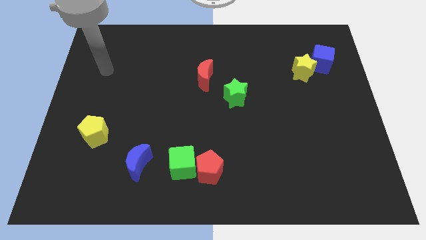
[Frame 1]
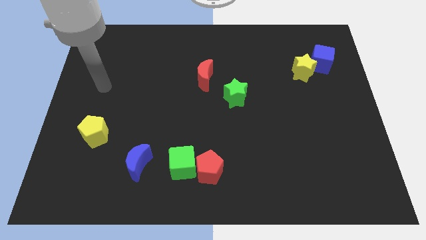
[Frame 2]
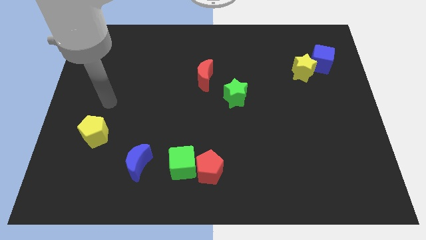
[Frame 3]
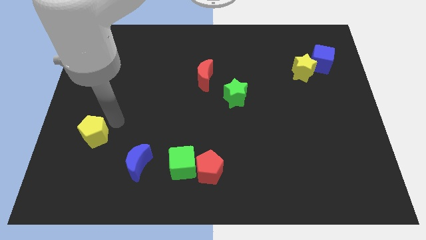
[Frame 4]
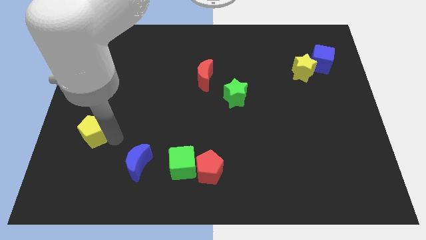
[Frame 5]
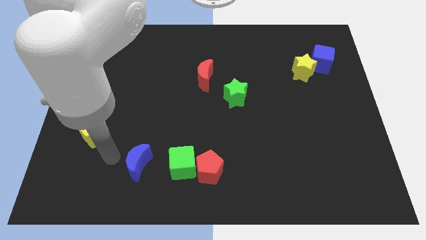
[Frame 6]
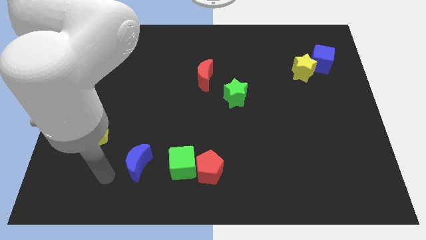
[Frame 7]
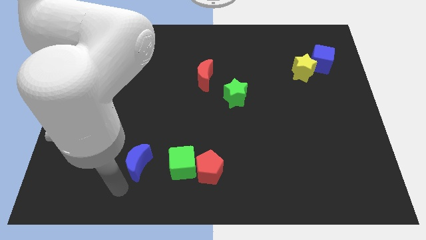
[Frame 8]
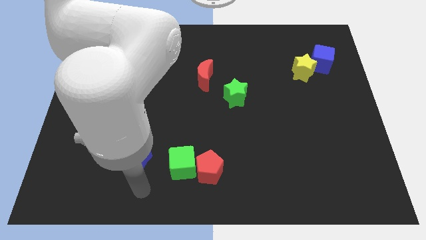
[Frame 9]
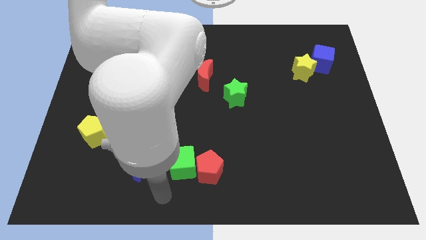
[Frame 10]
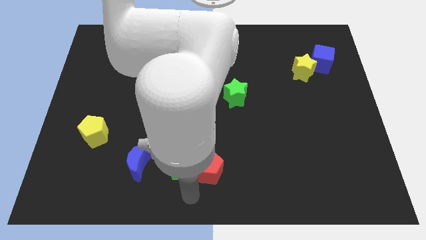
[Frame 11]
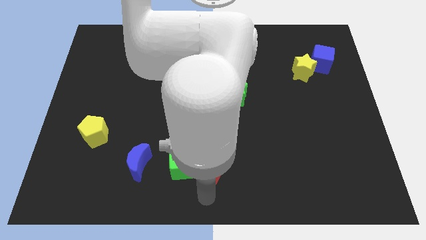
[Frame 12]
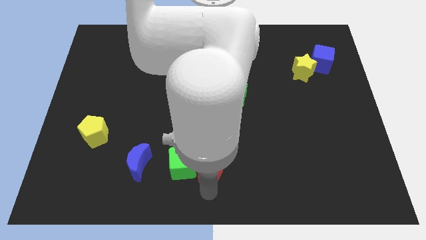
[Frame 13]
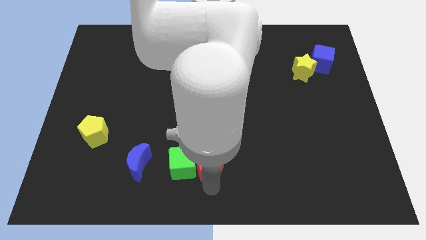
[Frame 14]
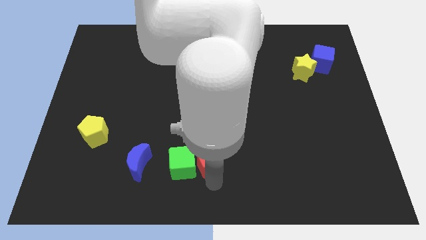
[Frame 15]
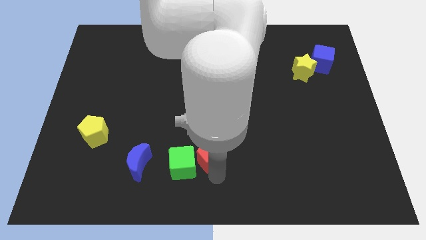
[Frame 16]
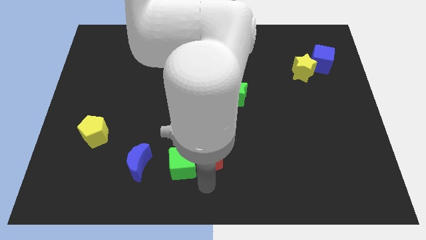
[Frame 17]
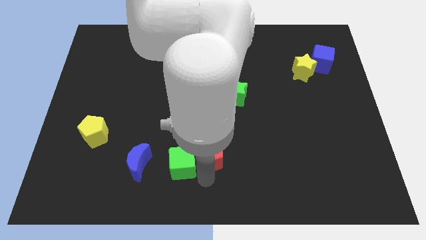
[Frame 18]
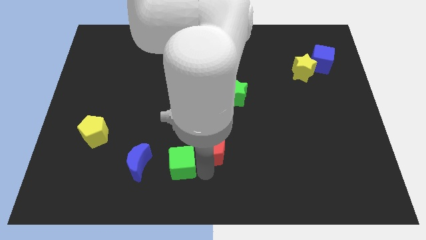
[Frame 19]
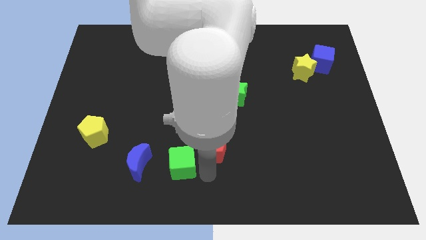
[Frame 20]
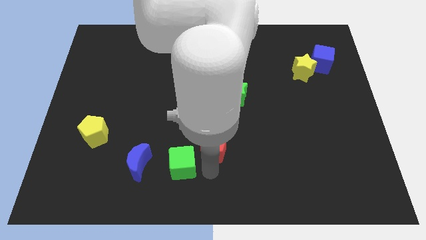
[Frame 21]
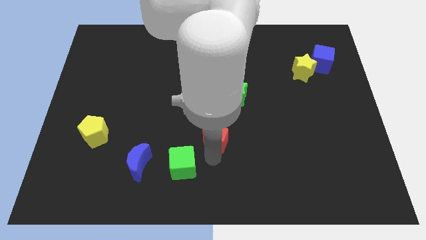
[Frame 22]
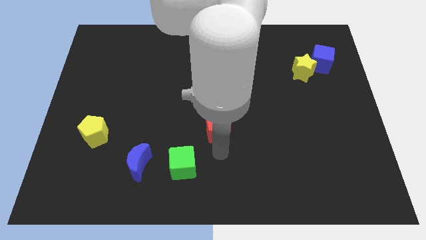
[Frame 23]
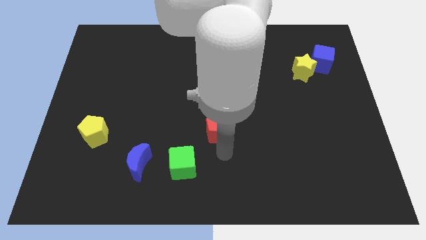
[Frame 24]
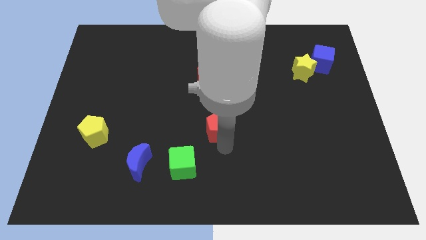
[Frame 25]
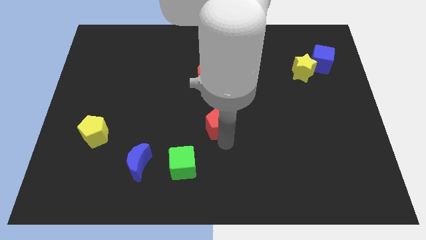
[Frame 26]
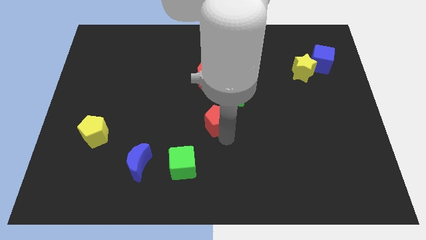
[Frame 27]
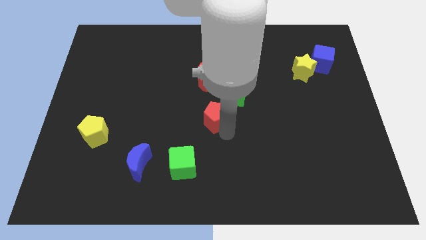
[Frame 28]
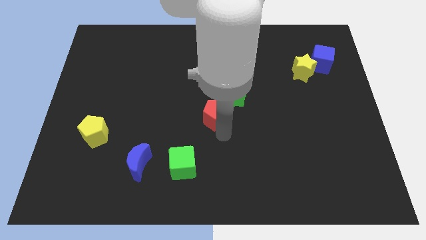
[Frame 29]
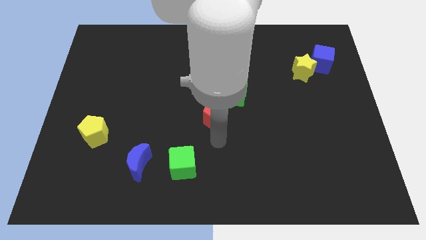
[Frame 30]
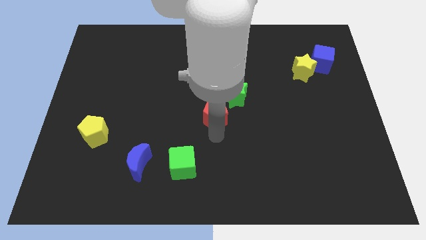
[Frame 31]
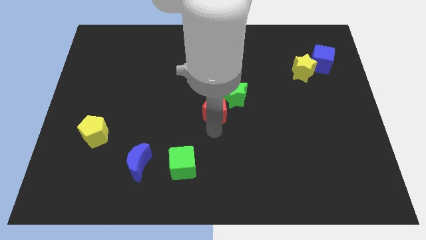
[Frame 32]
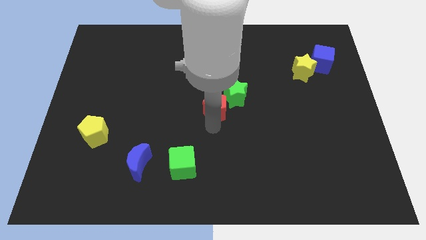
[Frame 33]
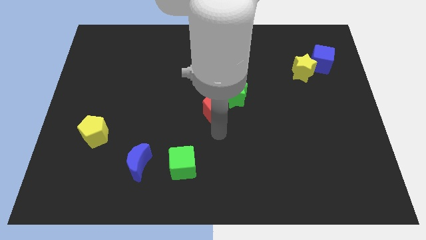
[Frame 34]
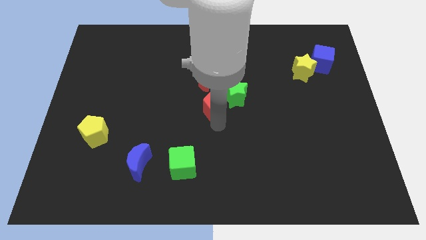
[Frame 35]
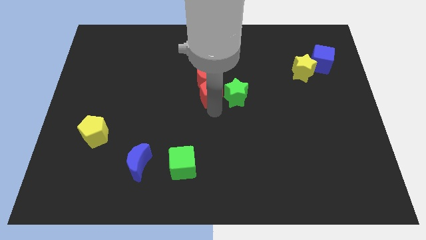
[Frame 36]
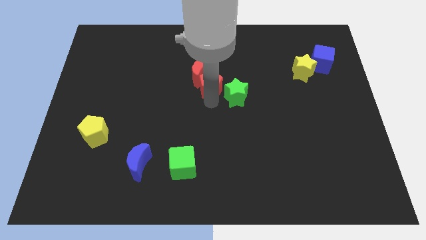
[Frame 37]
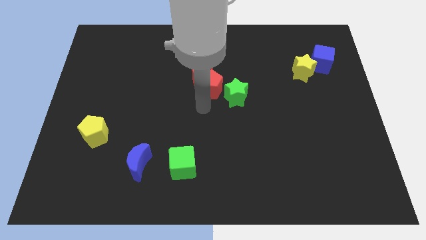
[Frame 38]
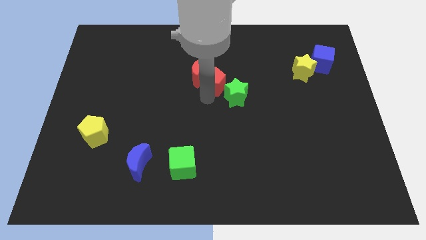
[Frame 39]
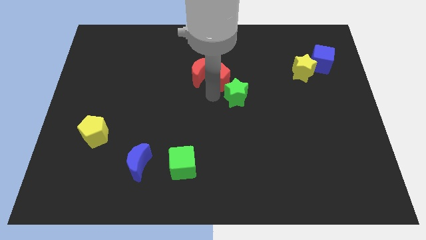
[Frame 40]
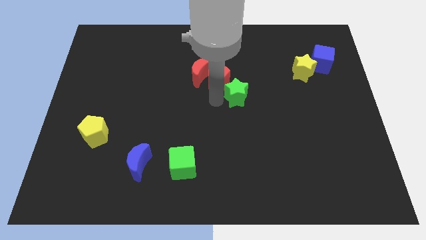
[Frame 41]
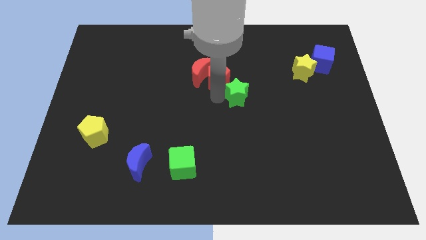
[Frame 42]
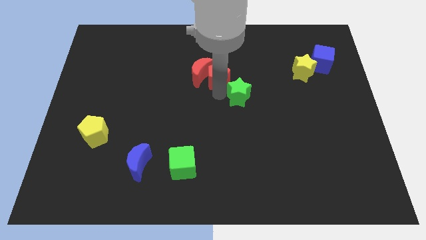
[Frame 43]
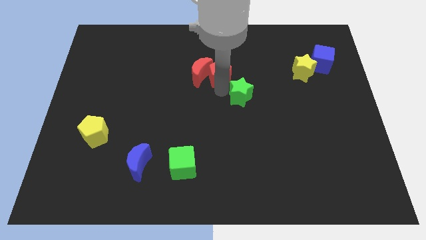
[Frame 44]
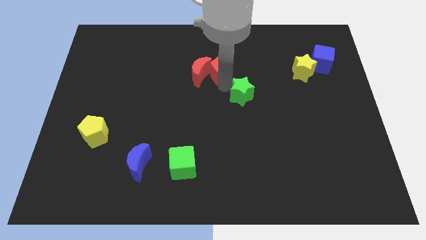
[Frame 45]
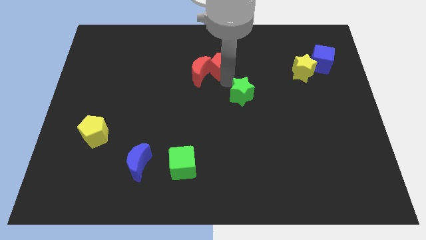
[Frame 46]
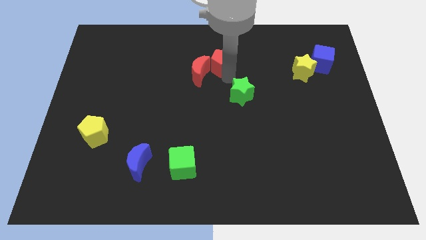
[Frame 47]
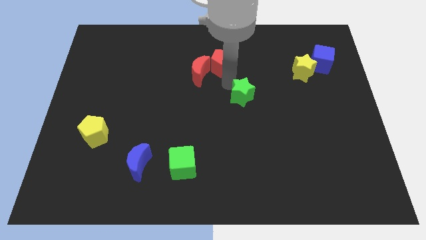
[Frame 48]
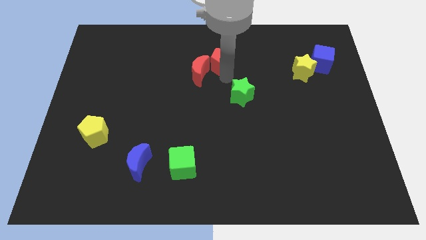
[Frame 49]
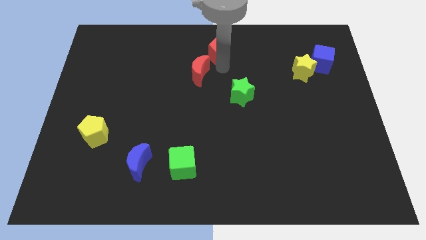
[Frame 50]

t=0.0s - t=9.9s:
put the red pentagon to the top

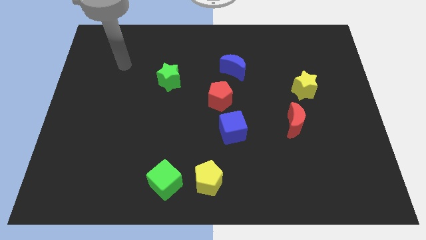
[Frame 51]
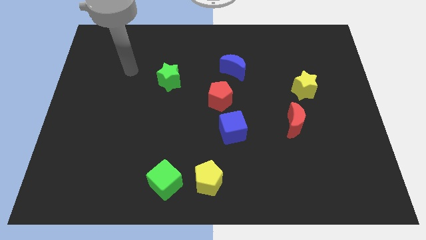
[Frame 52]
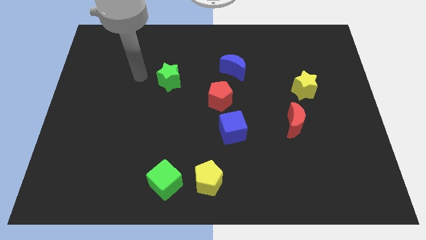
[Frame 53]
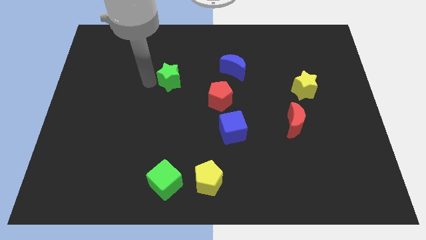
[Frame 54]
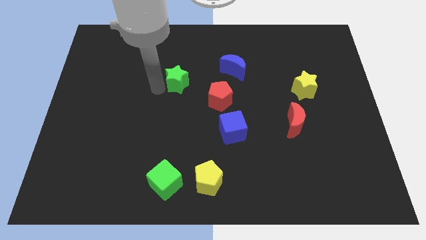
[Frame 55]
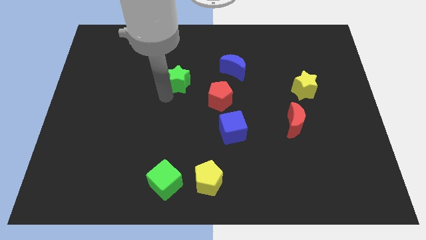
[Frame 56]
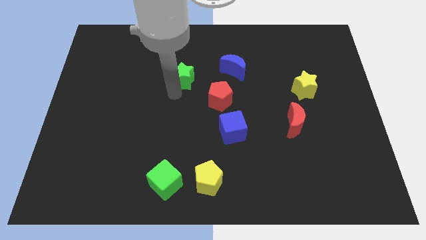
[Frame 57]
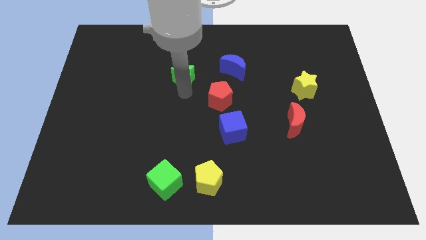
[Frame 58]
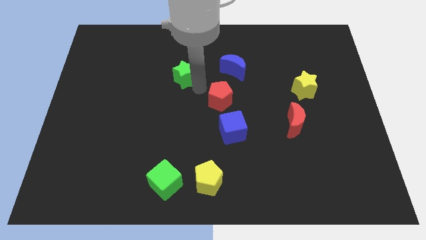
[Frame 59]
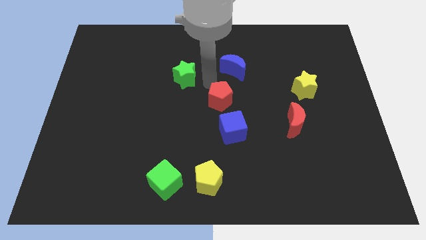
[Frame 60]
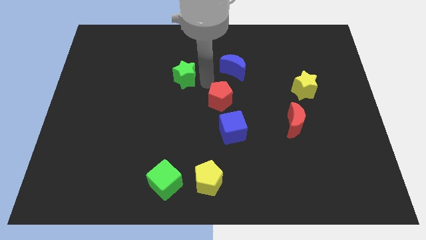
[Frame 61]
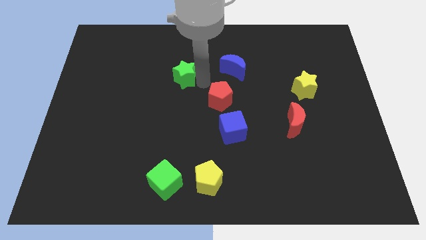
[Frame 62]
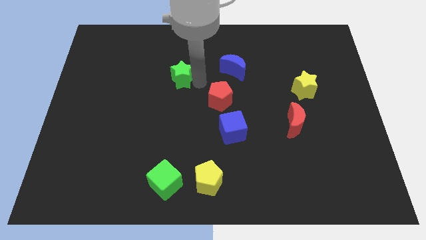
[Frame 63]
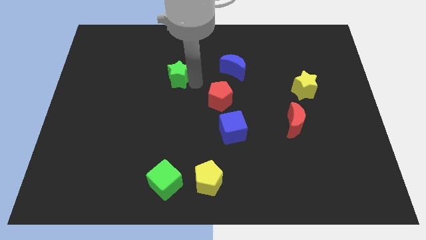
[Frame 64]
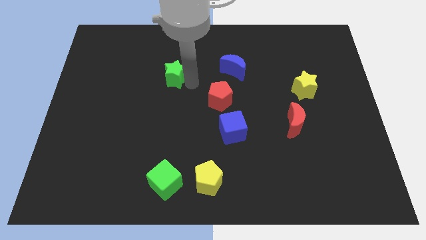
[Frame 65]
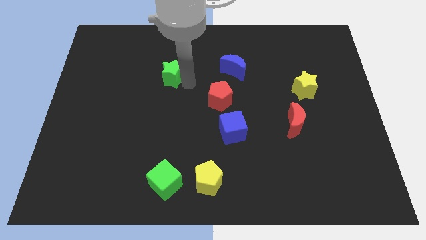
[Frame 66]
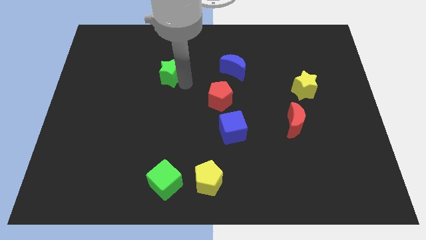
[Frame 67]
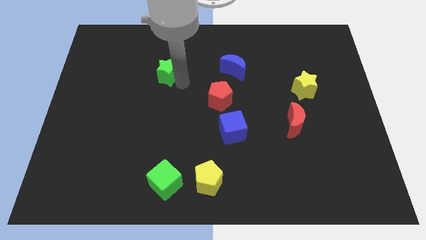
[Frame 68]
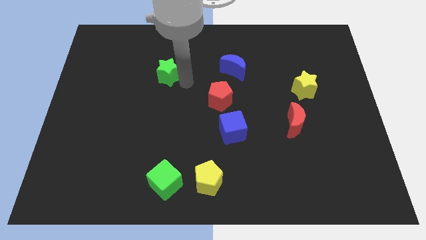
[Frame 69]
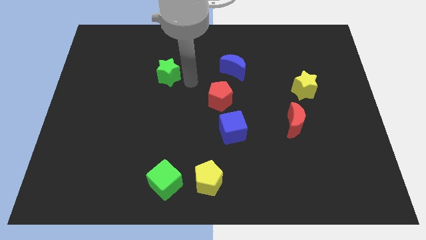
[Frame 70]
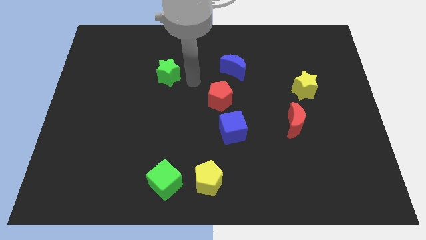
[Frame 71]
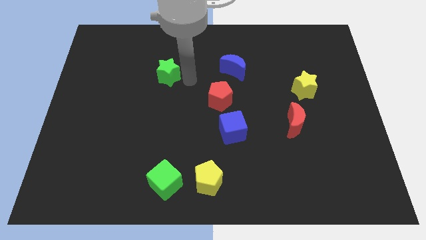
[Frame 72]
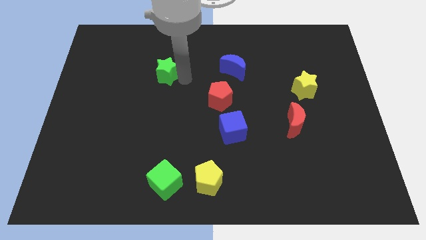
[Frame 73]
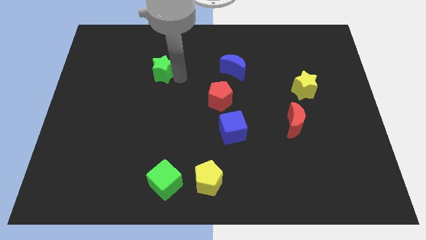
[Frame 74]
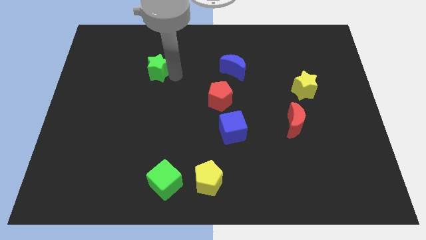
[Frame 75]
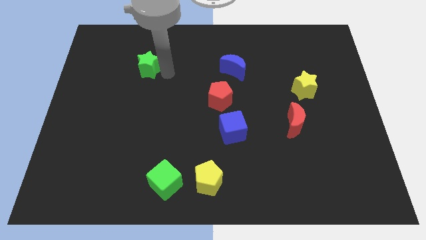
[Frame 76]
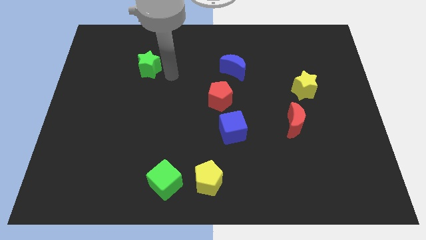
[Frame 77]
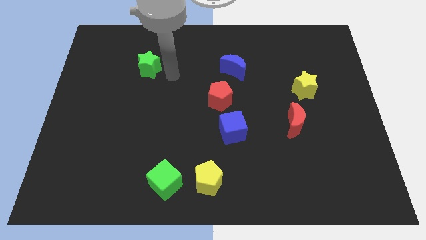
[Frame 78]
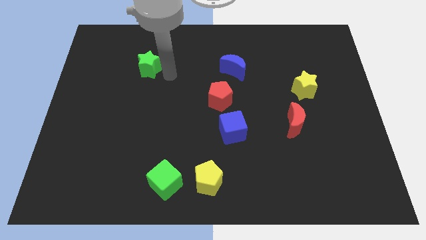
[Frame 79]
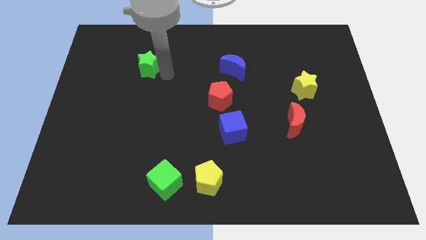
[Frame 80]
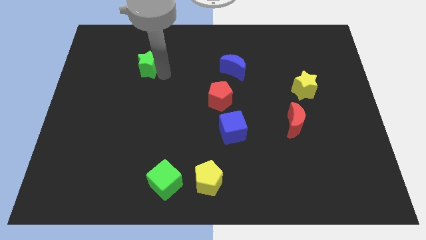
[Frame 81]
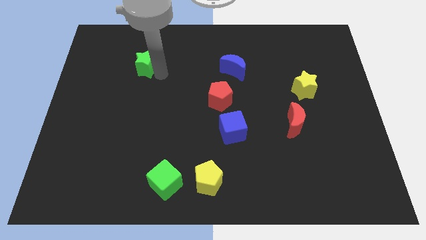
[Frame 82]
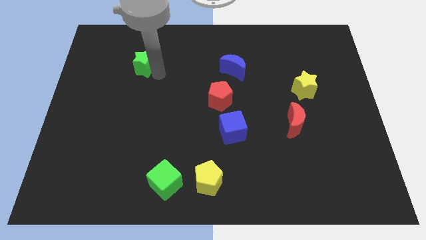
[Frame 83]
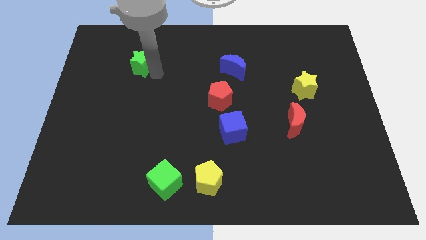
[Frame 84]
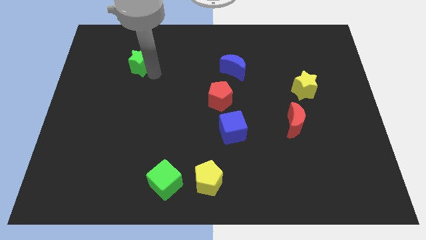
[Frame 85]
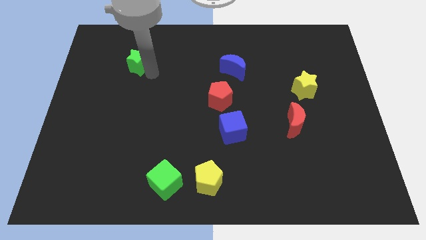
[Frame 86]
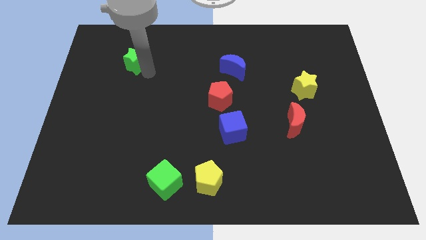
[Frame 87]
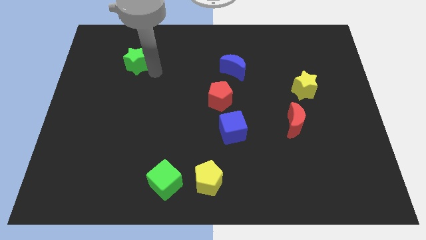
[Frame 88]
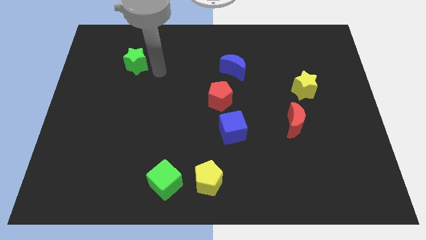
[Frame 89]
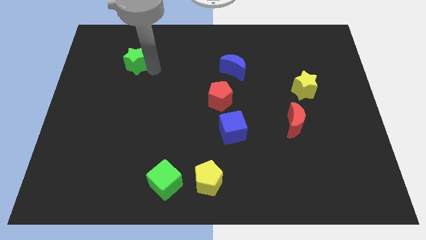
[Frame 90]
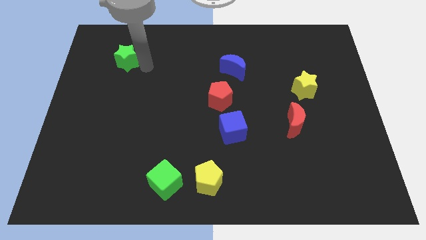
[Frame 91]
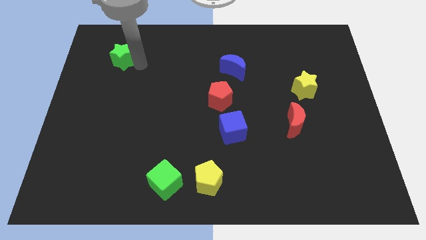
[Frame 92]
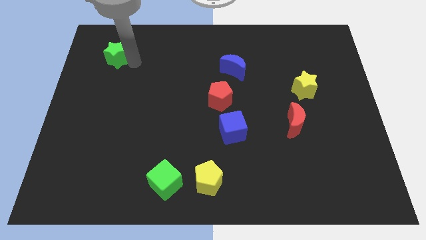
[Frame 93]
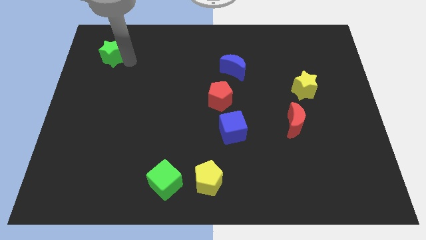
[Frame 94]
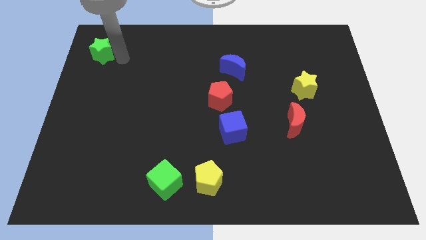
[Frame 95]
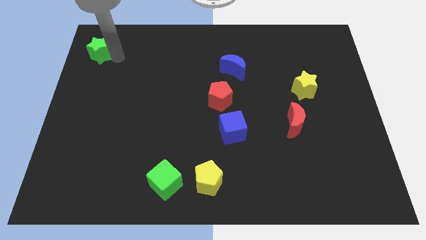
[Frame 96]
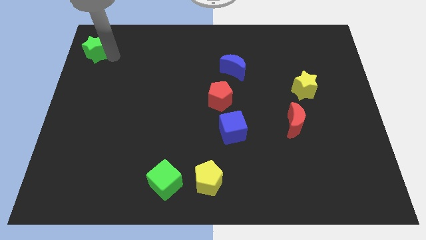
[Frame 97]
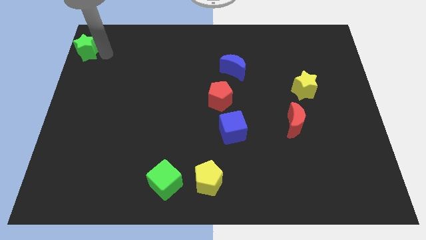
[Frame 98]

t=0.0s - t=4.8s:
move the green star to the top left corner
